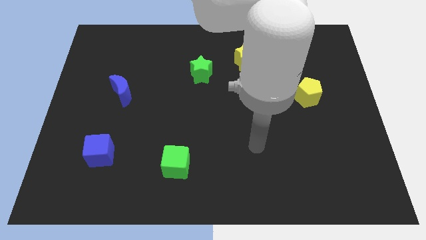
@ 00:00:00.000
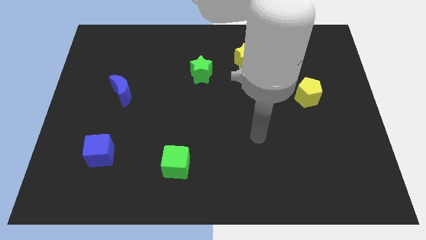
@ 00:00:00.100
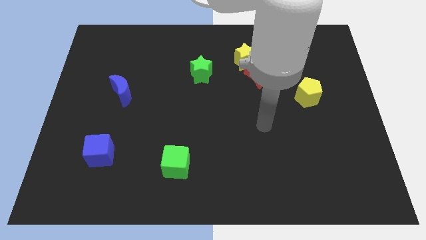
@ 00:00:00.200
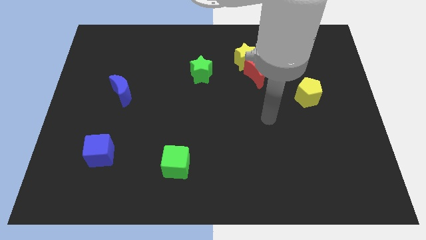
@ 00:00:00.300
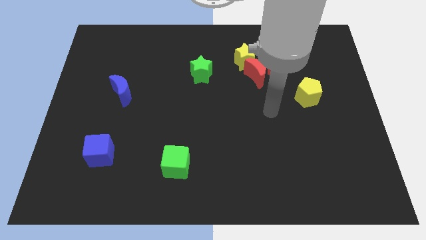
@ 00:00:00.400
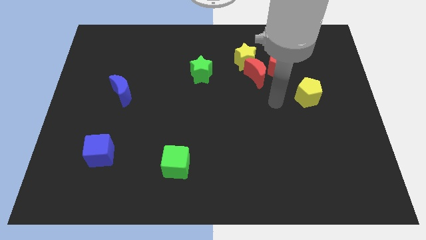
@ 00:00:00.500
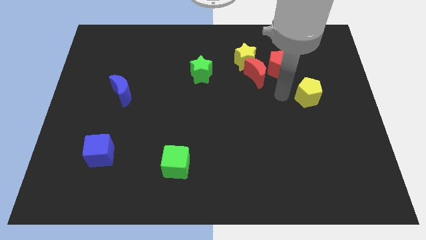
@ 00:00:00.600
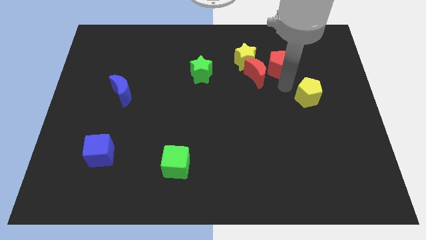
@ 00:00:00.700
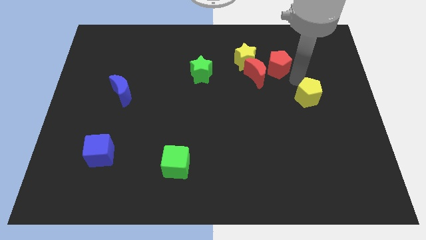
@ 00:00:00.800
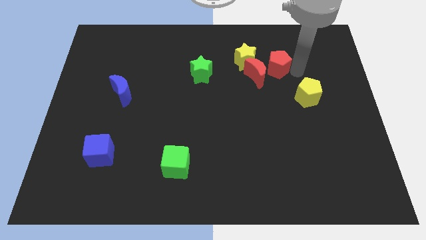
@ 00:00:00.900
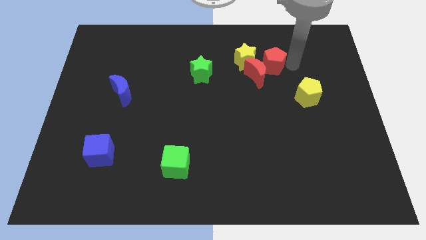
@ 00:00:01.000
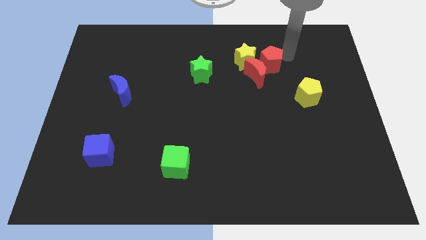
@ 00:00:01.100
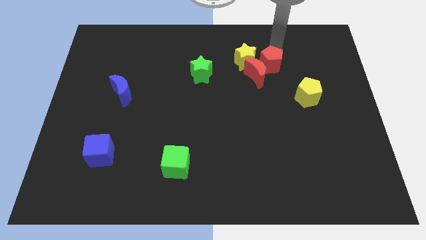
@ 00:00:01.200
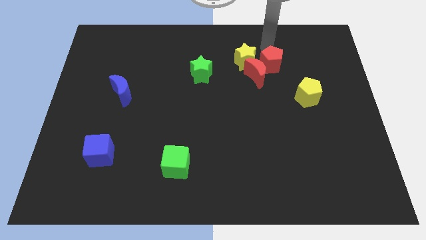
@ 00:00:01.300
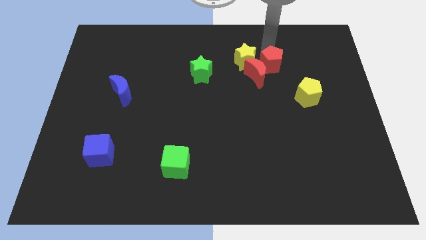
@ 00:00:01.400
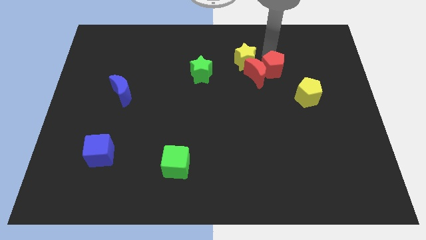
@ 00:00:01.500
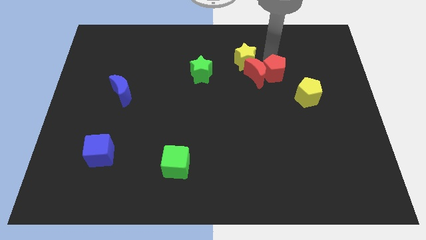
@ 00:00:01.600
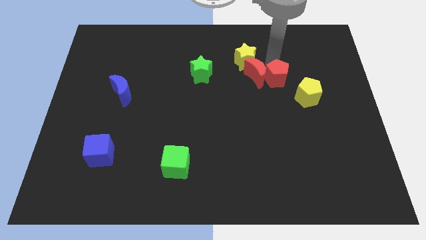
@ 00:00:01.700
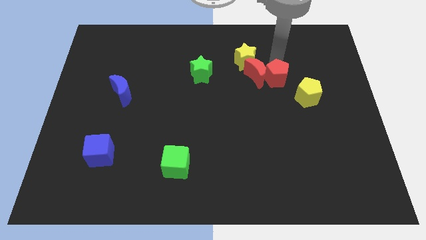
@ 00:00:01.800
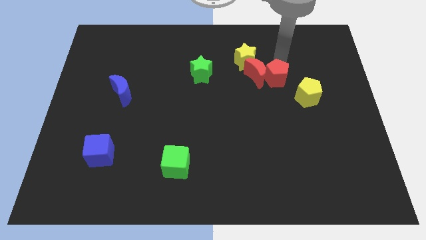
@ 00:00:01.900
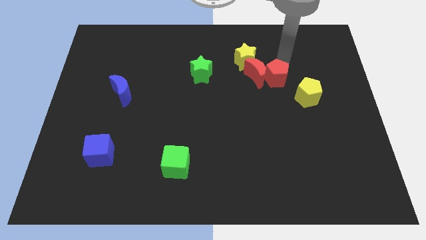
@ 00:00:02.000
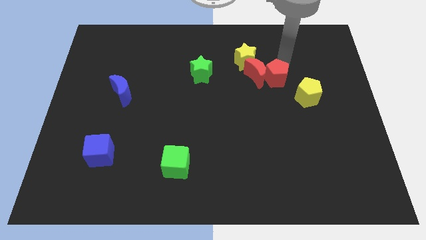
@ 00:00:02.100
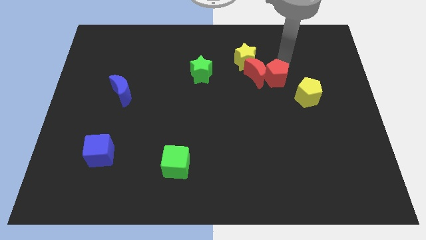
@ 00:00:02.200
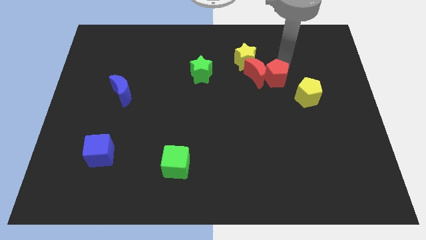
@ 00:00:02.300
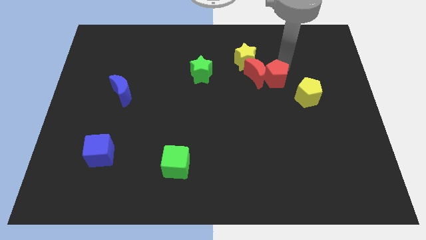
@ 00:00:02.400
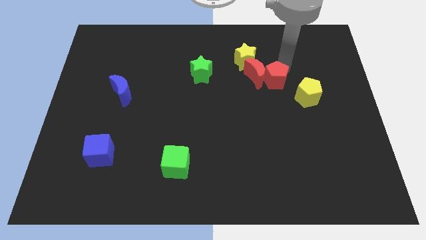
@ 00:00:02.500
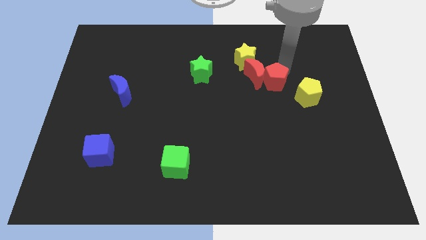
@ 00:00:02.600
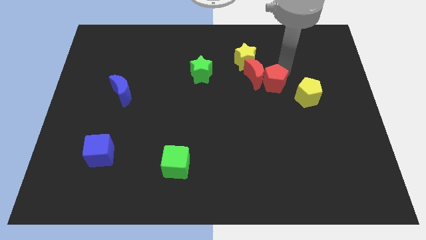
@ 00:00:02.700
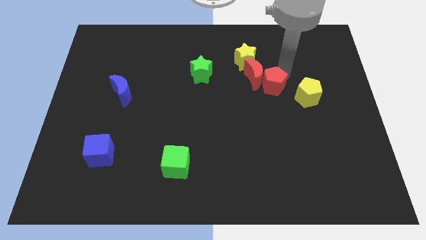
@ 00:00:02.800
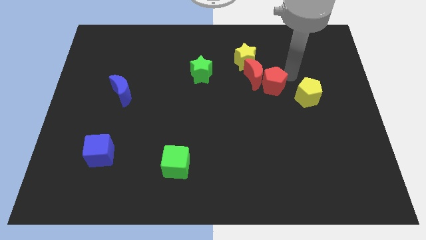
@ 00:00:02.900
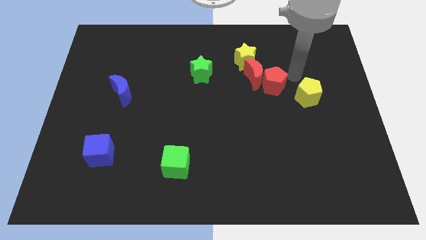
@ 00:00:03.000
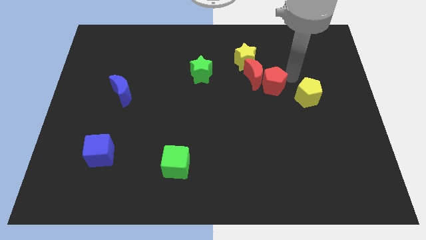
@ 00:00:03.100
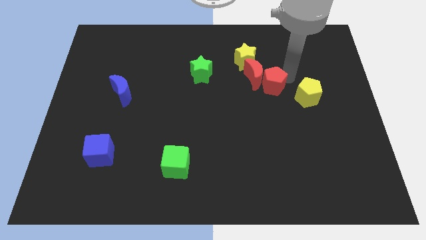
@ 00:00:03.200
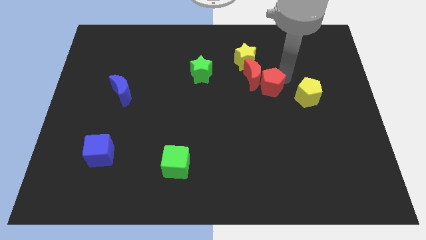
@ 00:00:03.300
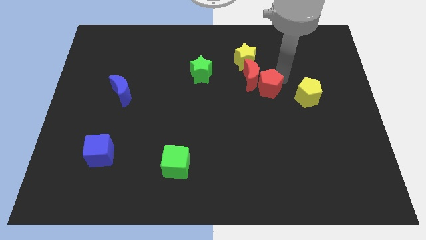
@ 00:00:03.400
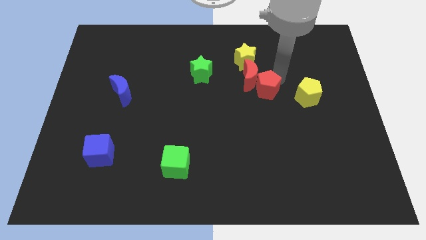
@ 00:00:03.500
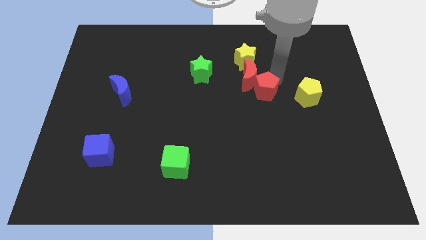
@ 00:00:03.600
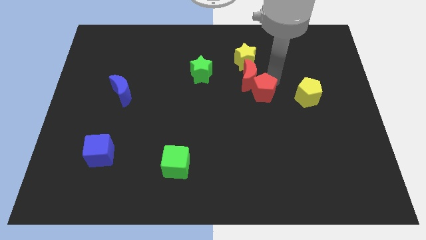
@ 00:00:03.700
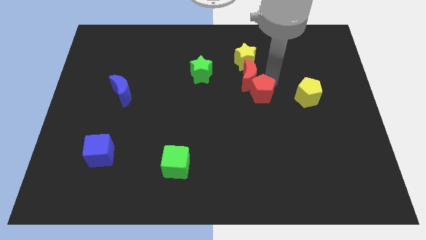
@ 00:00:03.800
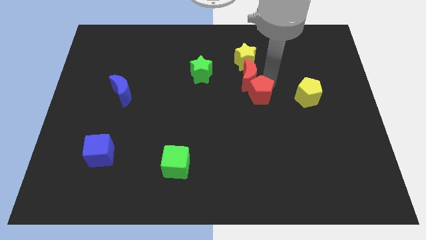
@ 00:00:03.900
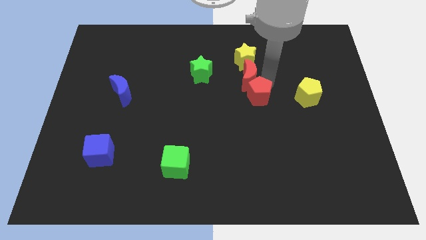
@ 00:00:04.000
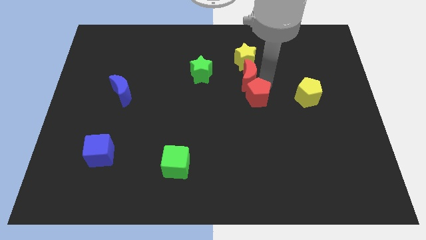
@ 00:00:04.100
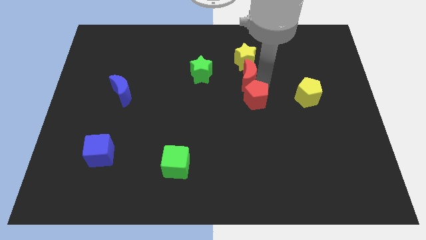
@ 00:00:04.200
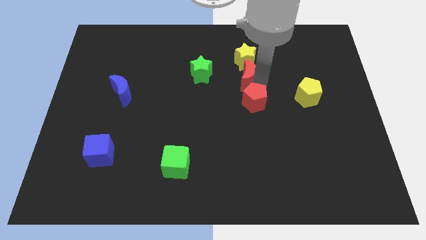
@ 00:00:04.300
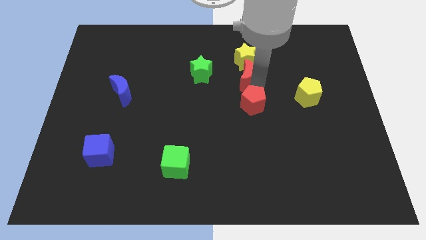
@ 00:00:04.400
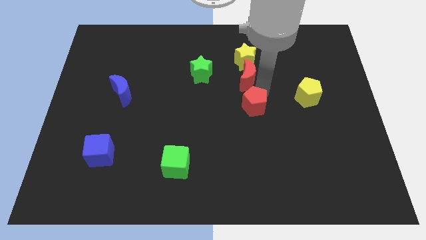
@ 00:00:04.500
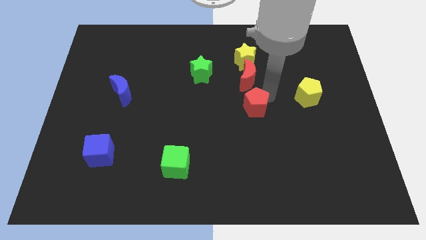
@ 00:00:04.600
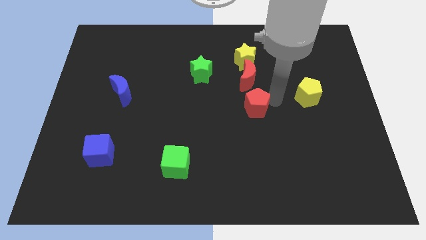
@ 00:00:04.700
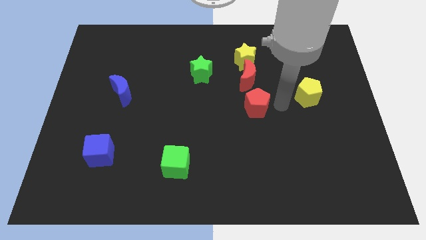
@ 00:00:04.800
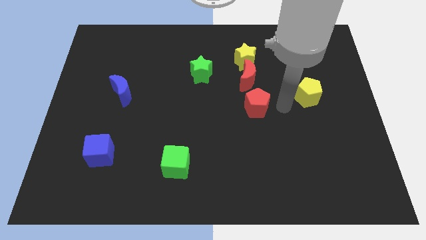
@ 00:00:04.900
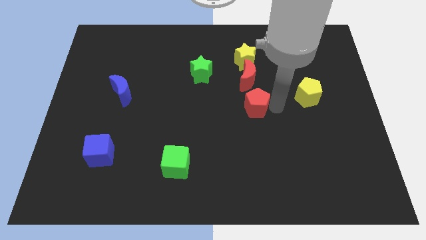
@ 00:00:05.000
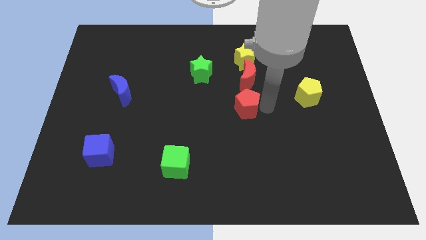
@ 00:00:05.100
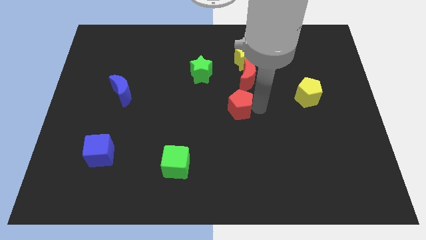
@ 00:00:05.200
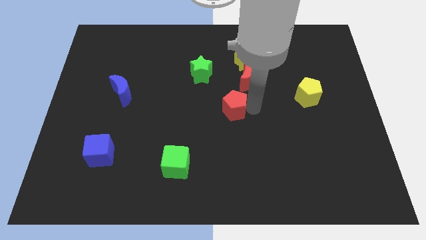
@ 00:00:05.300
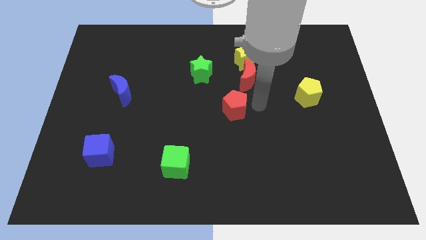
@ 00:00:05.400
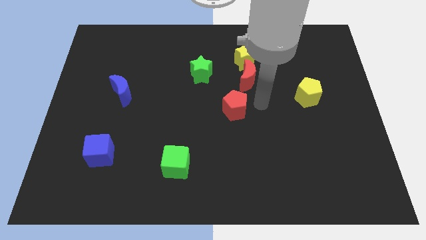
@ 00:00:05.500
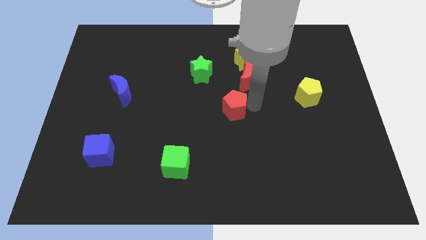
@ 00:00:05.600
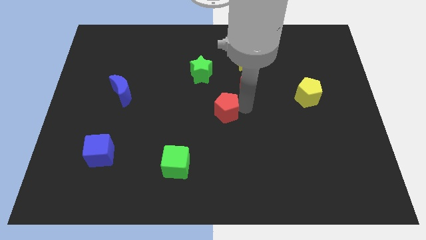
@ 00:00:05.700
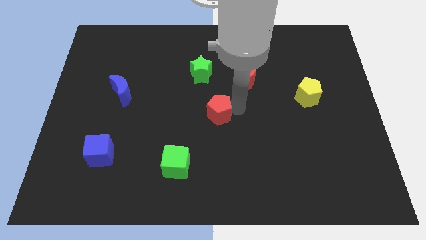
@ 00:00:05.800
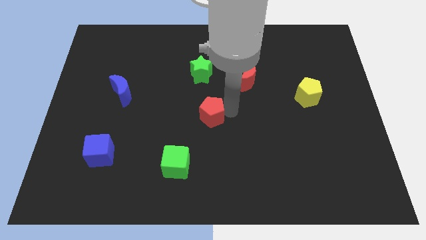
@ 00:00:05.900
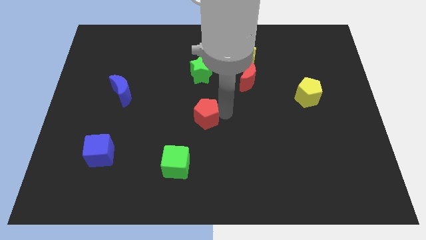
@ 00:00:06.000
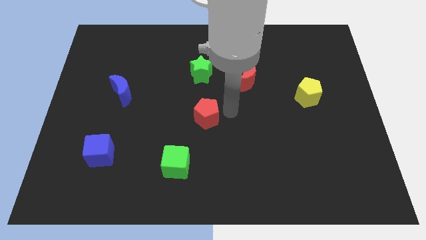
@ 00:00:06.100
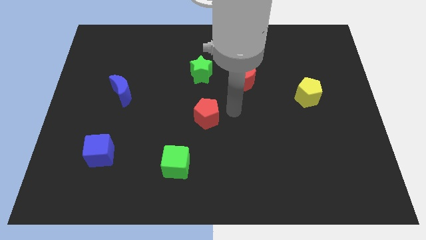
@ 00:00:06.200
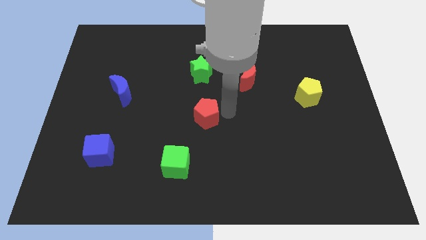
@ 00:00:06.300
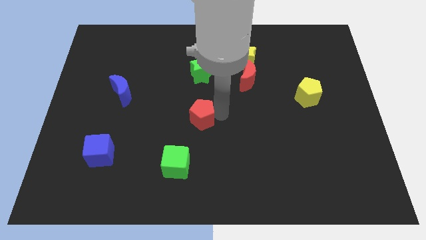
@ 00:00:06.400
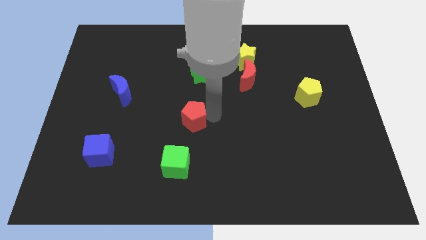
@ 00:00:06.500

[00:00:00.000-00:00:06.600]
move the red pentagon to the top of the green cube
